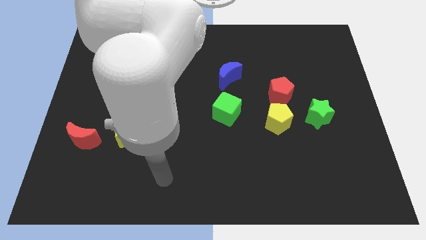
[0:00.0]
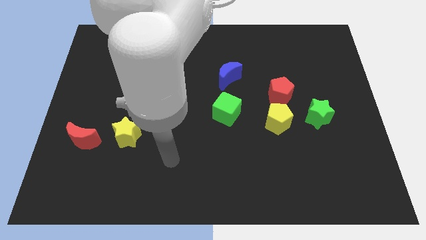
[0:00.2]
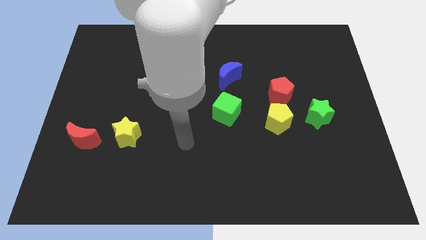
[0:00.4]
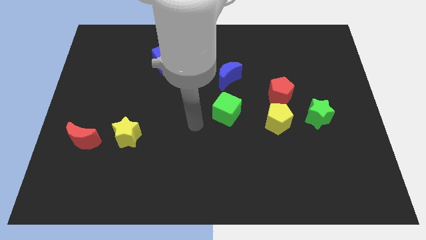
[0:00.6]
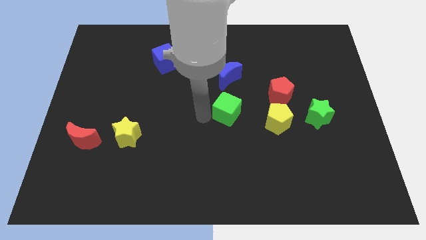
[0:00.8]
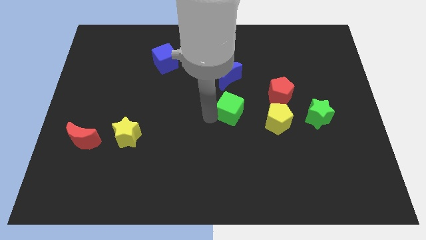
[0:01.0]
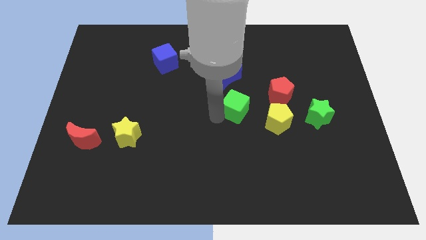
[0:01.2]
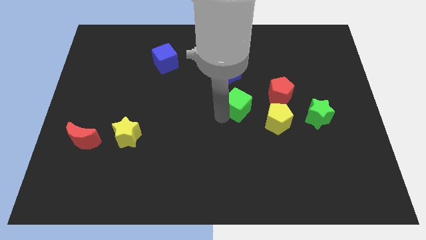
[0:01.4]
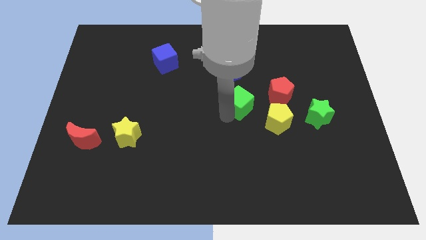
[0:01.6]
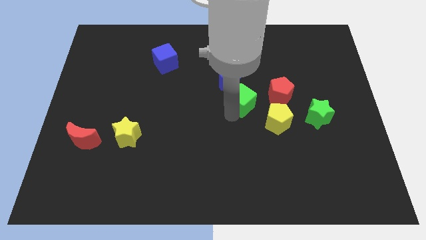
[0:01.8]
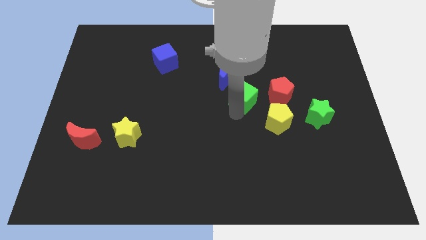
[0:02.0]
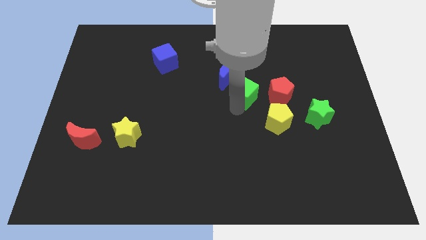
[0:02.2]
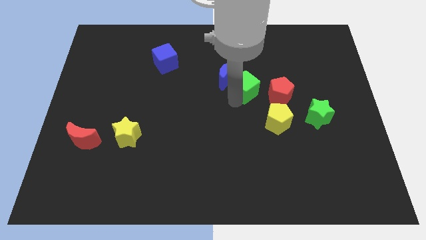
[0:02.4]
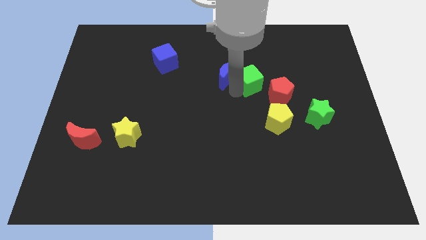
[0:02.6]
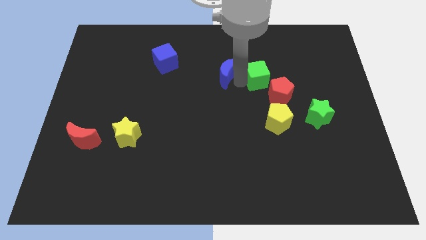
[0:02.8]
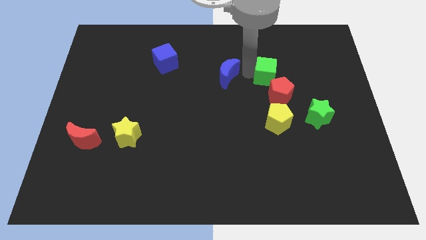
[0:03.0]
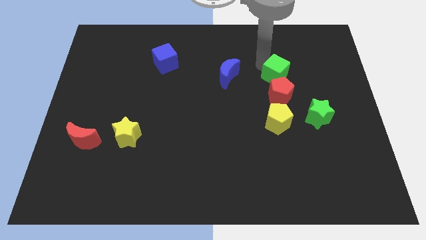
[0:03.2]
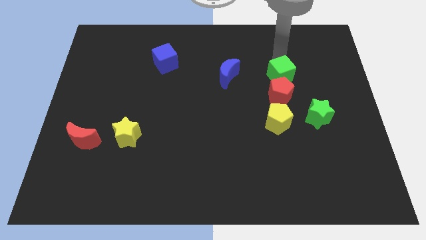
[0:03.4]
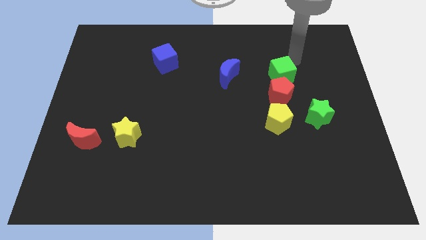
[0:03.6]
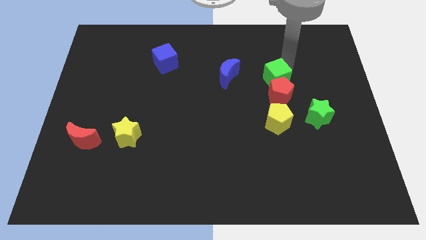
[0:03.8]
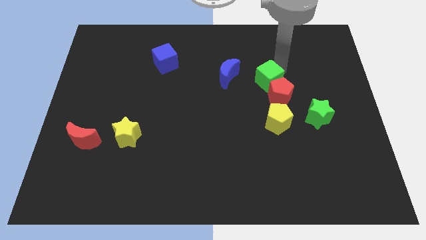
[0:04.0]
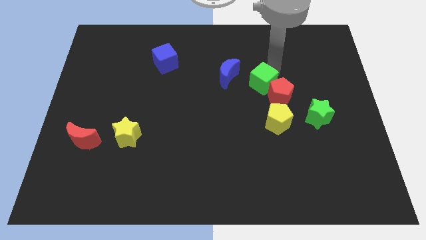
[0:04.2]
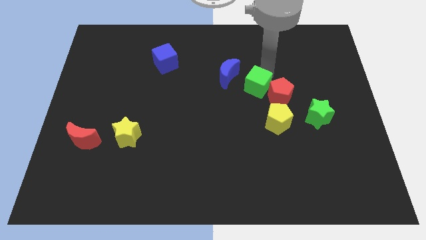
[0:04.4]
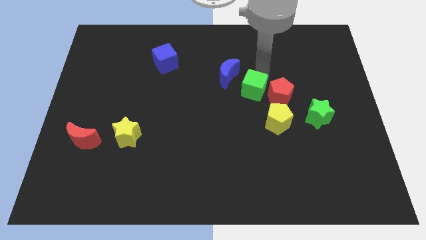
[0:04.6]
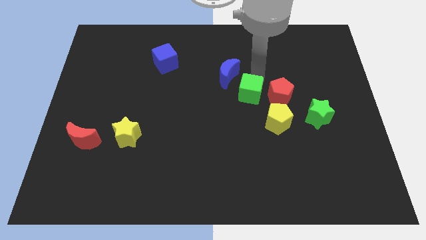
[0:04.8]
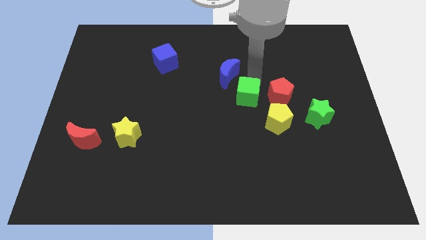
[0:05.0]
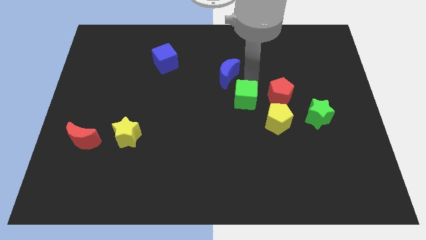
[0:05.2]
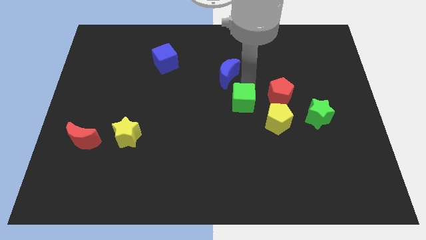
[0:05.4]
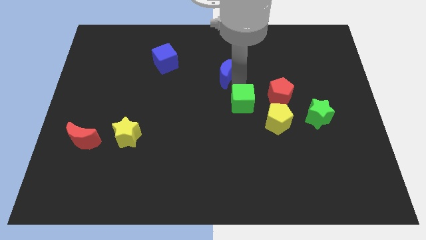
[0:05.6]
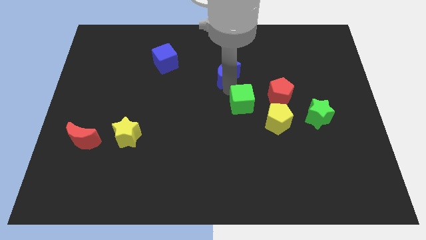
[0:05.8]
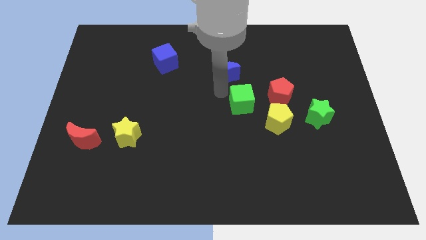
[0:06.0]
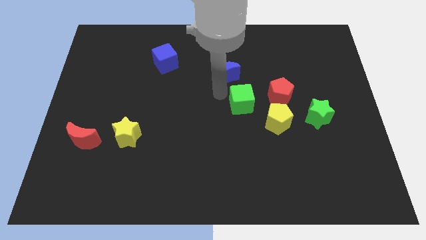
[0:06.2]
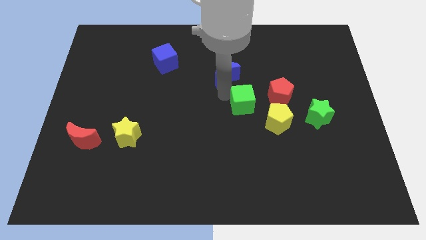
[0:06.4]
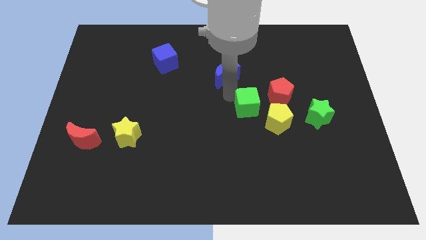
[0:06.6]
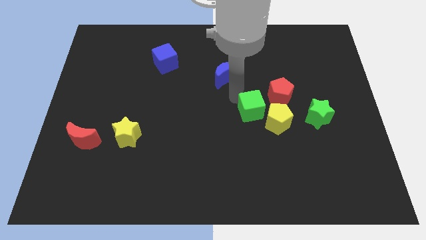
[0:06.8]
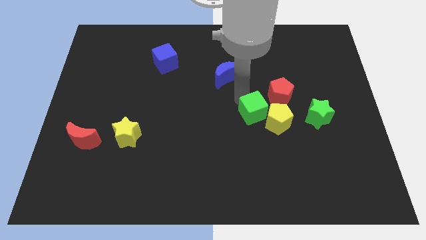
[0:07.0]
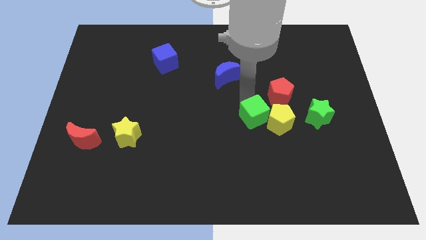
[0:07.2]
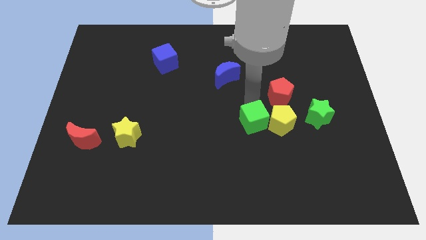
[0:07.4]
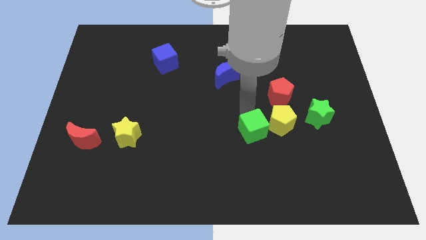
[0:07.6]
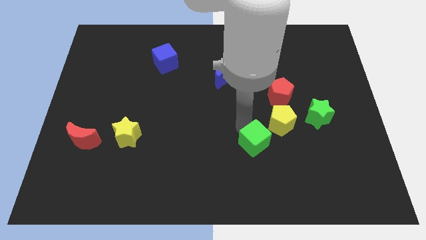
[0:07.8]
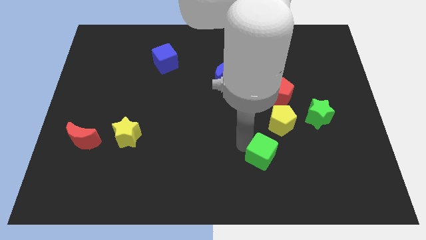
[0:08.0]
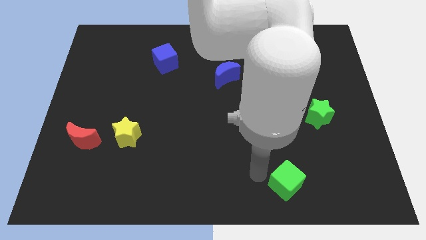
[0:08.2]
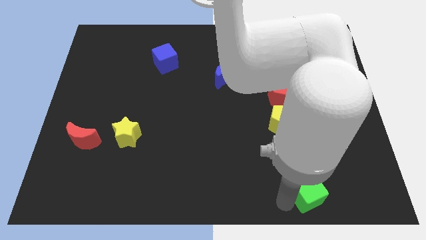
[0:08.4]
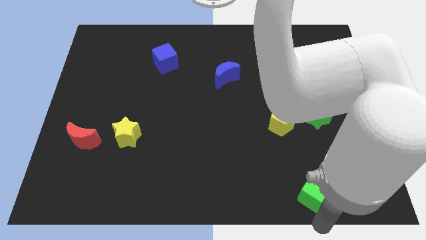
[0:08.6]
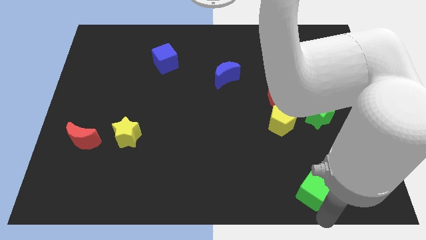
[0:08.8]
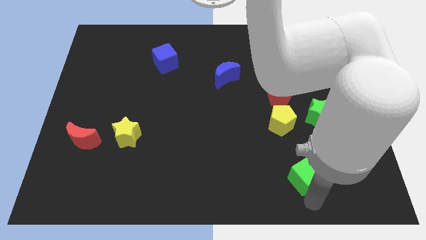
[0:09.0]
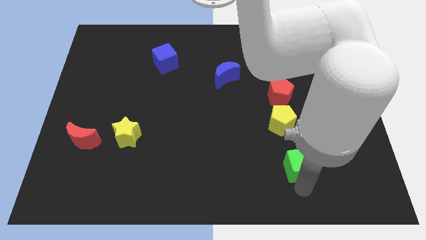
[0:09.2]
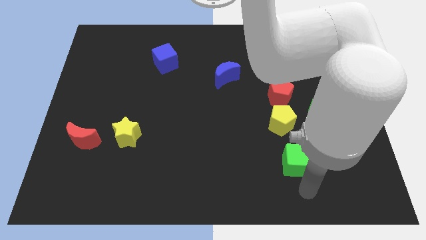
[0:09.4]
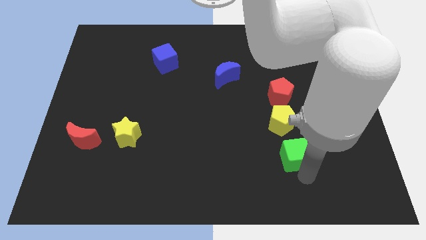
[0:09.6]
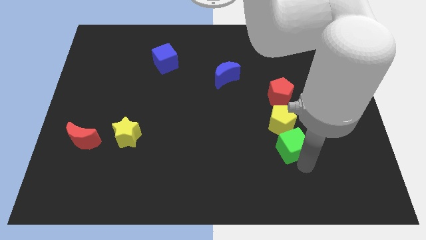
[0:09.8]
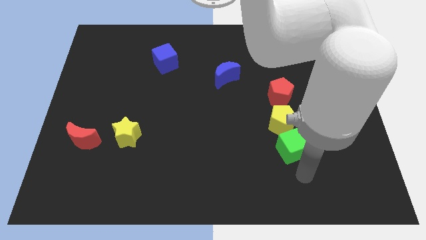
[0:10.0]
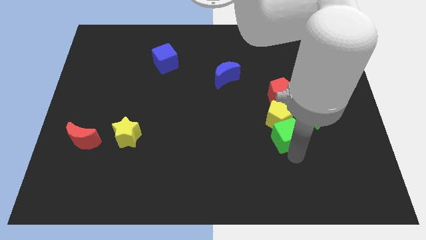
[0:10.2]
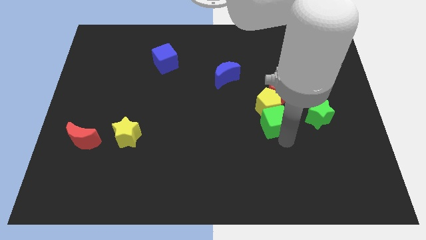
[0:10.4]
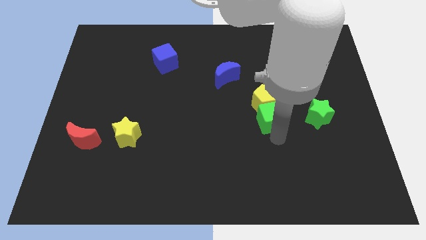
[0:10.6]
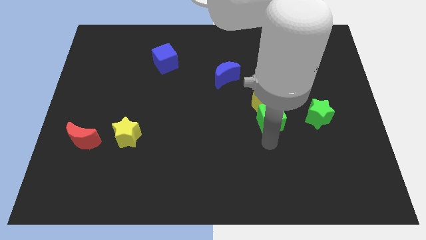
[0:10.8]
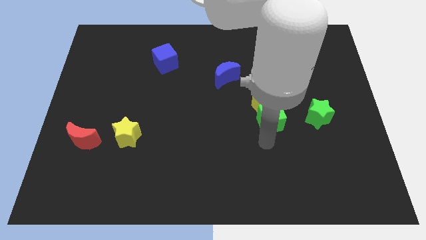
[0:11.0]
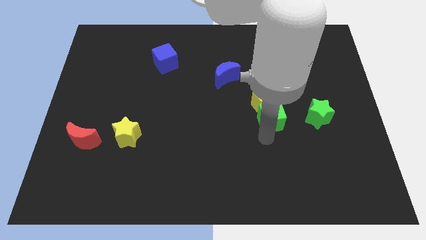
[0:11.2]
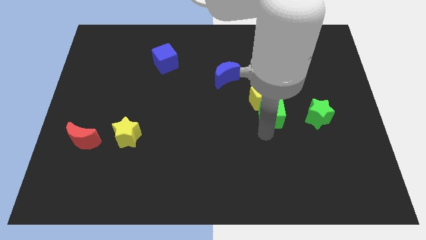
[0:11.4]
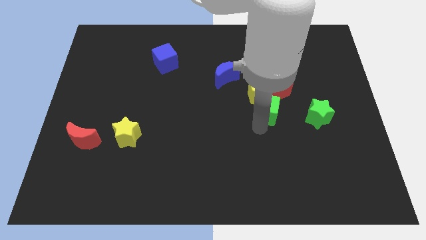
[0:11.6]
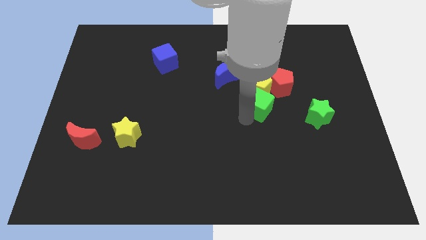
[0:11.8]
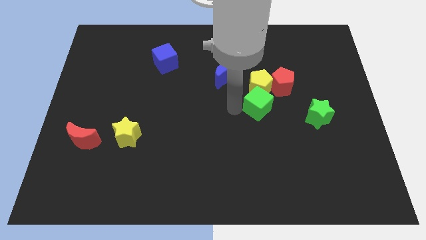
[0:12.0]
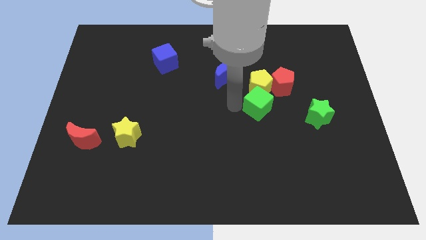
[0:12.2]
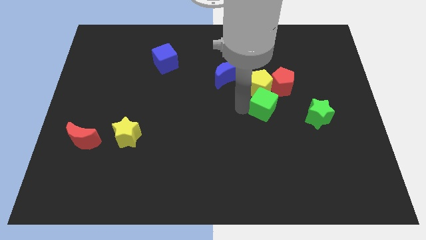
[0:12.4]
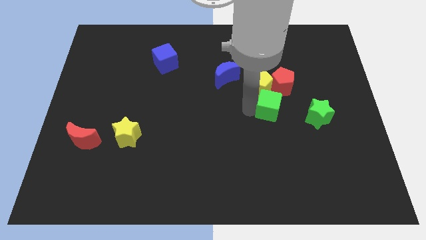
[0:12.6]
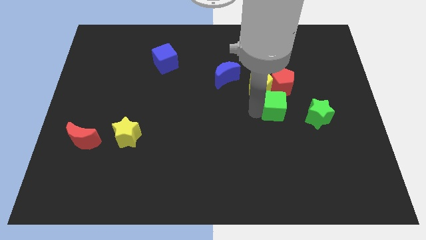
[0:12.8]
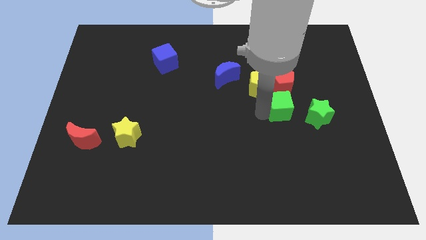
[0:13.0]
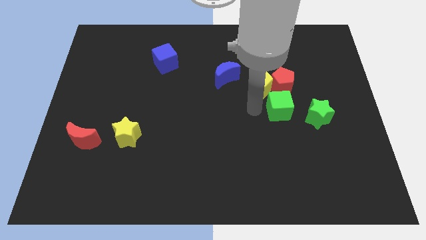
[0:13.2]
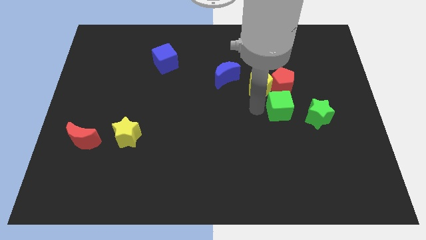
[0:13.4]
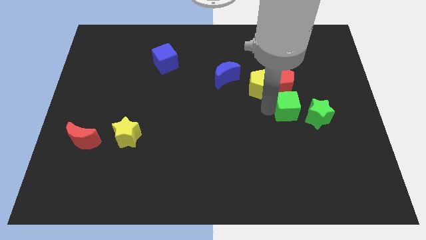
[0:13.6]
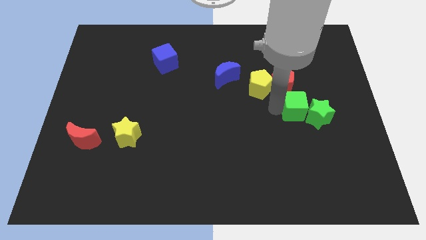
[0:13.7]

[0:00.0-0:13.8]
push the green cube towards the green star
